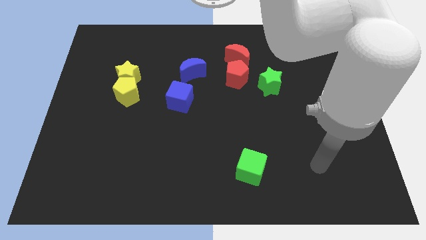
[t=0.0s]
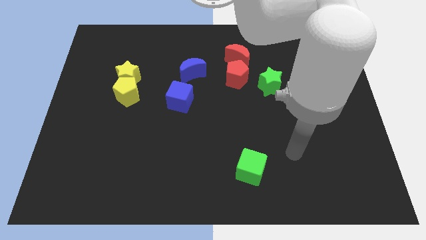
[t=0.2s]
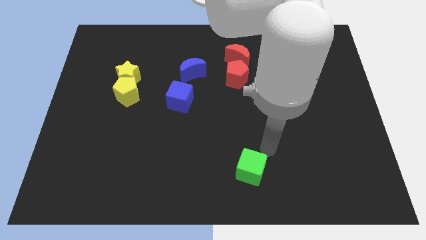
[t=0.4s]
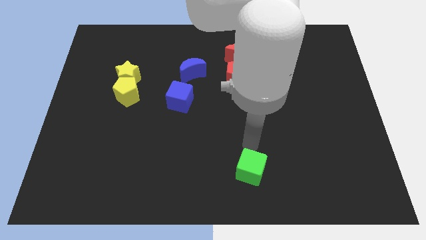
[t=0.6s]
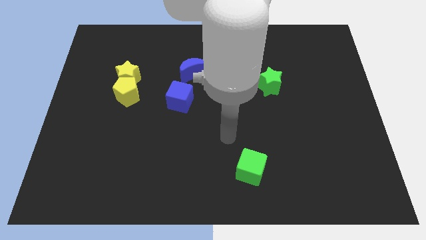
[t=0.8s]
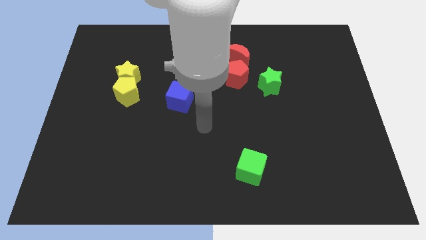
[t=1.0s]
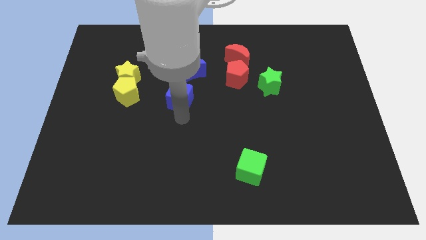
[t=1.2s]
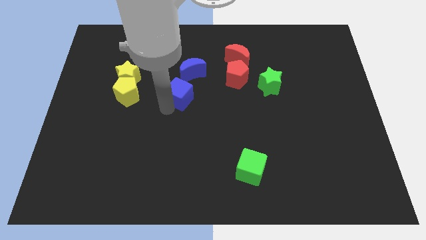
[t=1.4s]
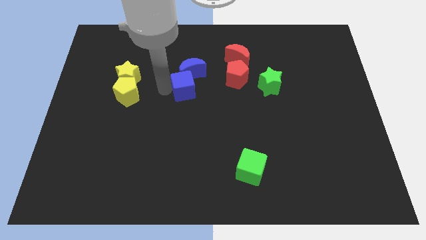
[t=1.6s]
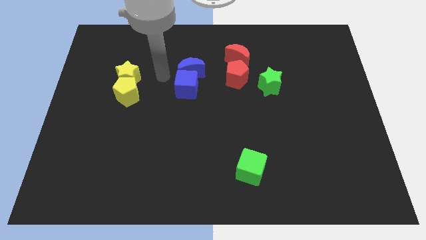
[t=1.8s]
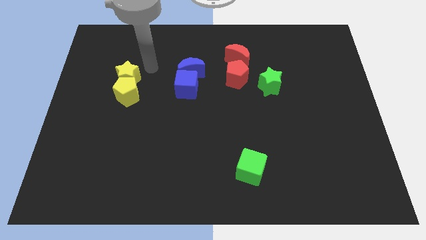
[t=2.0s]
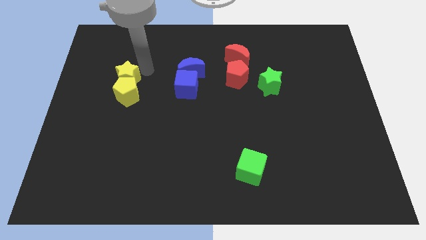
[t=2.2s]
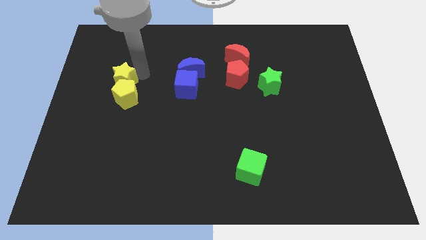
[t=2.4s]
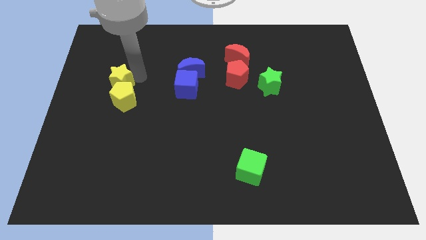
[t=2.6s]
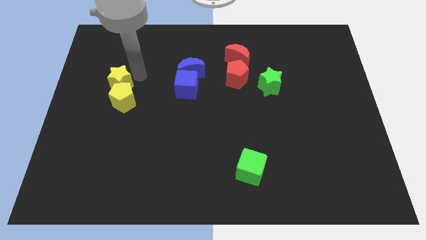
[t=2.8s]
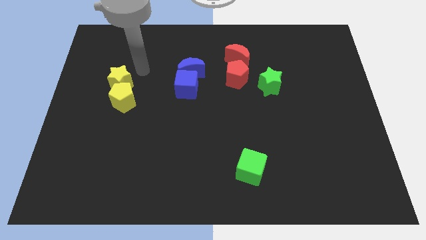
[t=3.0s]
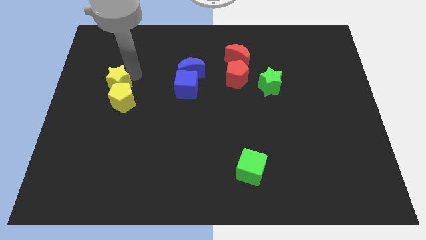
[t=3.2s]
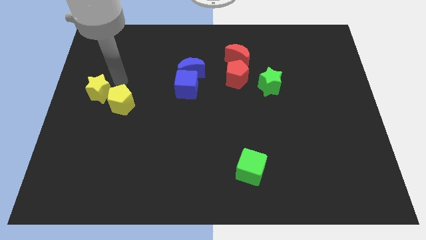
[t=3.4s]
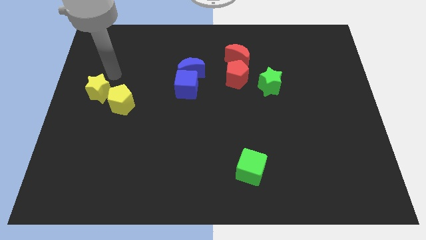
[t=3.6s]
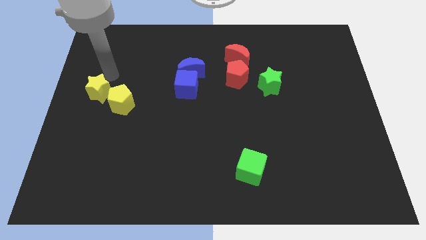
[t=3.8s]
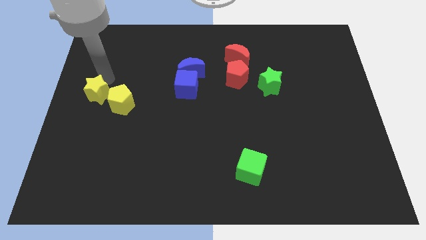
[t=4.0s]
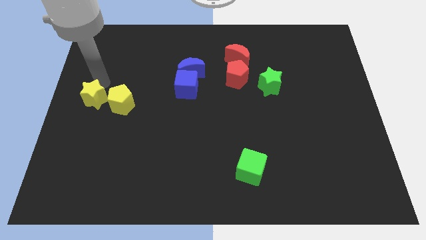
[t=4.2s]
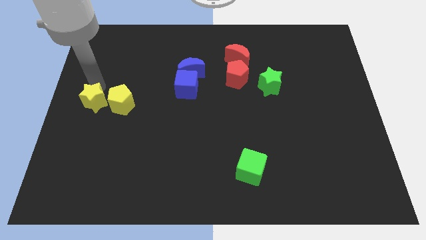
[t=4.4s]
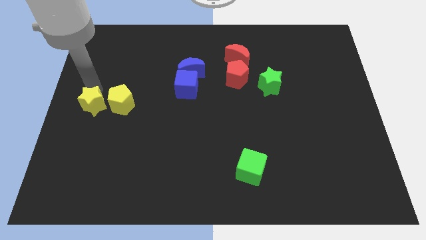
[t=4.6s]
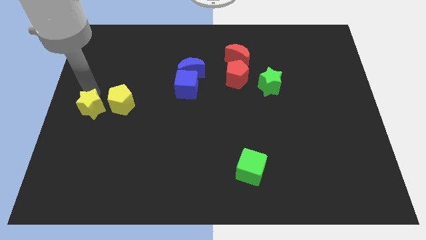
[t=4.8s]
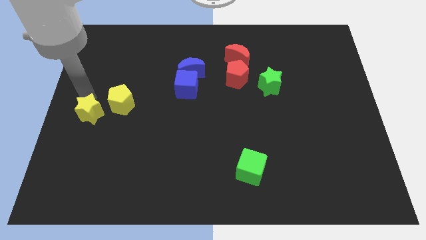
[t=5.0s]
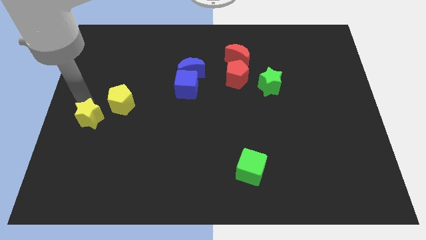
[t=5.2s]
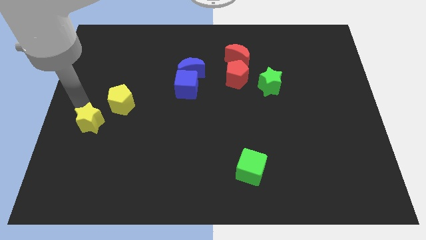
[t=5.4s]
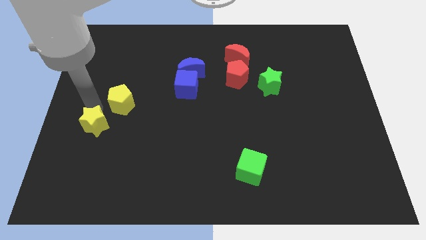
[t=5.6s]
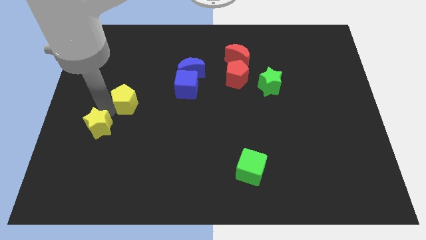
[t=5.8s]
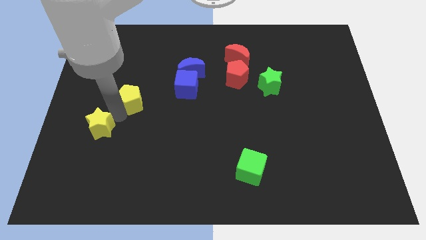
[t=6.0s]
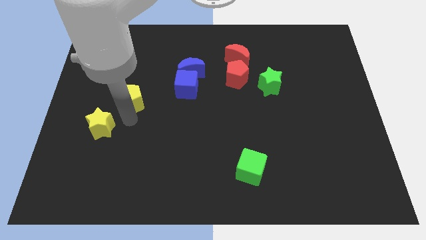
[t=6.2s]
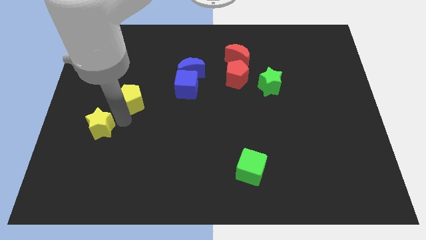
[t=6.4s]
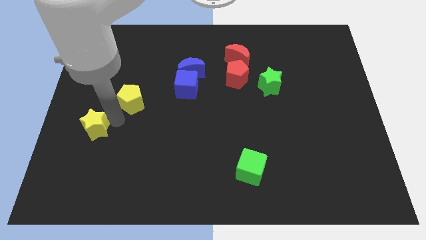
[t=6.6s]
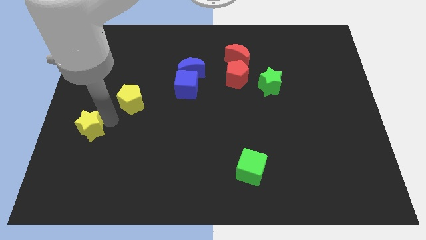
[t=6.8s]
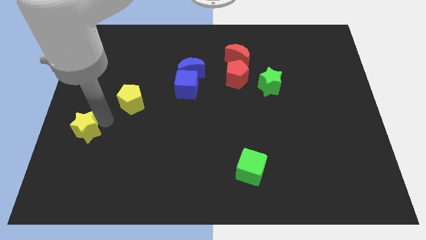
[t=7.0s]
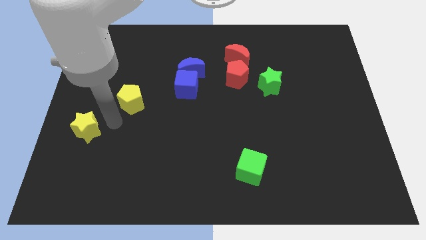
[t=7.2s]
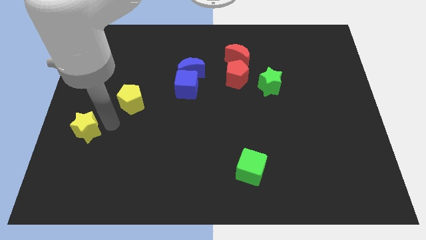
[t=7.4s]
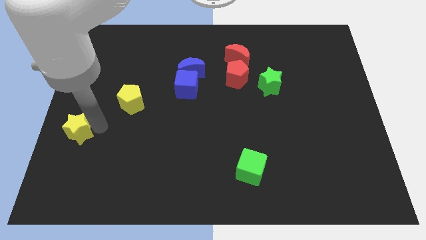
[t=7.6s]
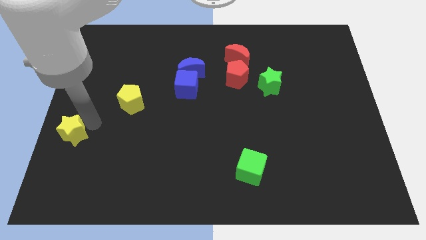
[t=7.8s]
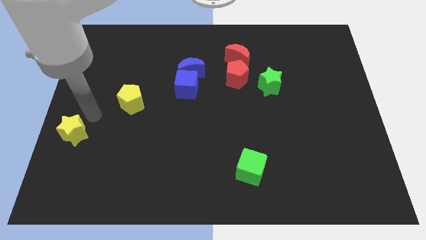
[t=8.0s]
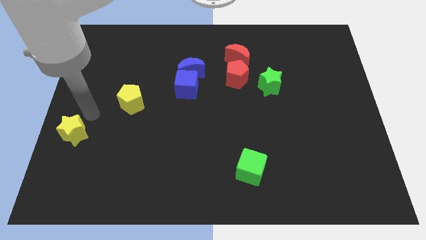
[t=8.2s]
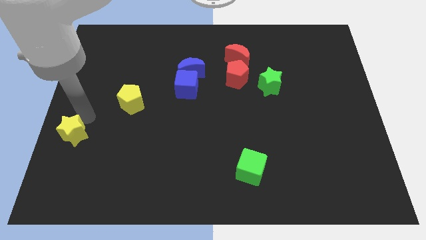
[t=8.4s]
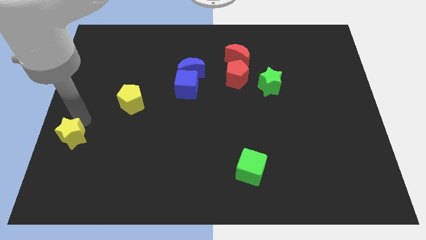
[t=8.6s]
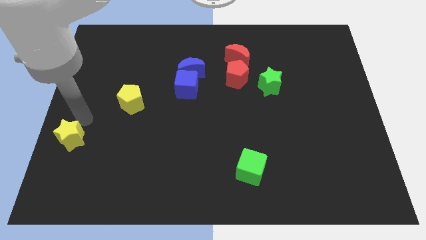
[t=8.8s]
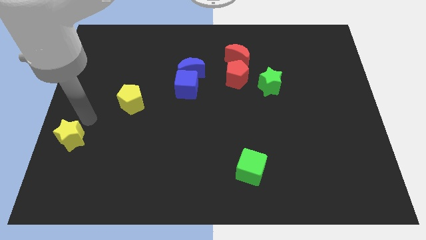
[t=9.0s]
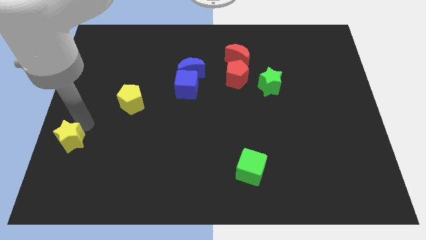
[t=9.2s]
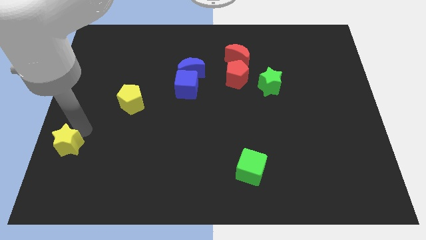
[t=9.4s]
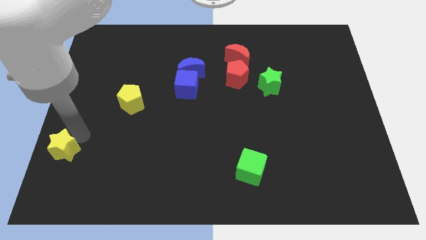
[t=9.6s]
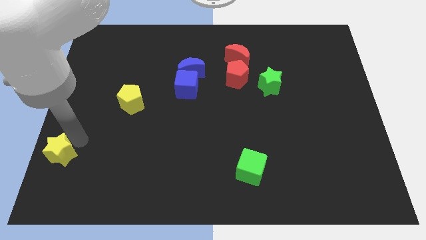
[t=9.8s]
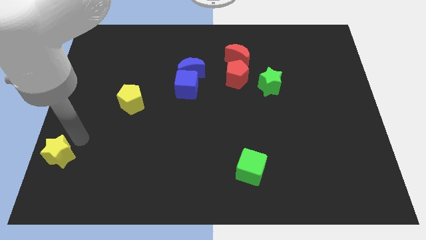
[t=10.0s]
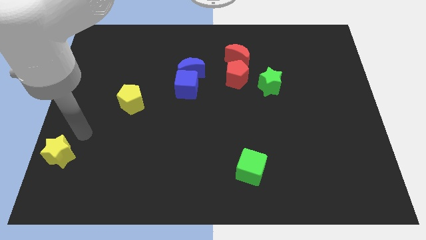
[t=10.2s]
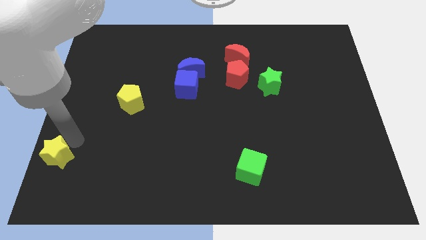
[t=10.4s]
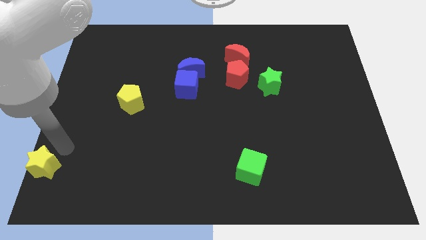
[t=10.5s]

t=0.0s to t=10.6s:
slide the yellow star to the bottom left

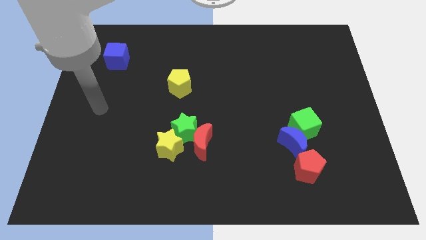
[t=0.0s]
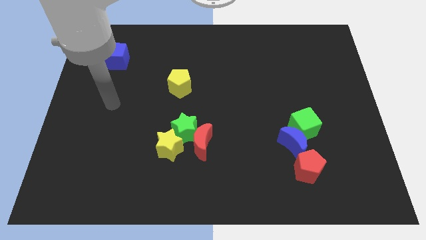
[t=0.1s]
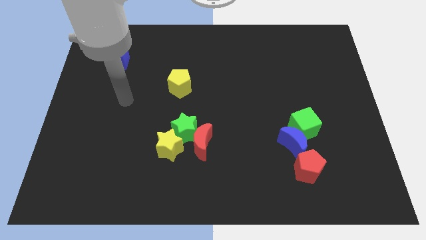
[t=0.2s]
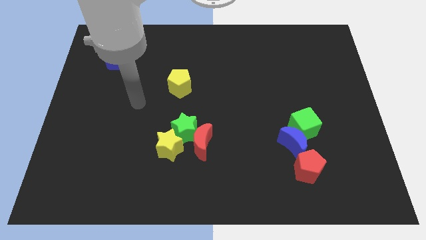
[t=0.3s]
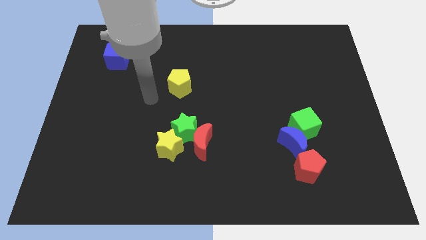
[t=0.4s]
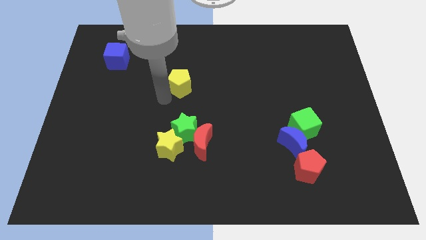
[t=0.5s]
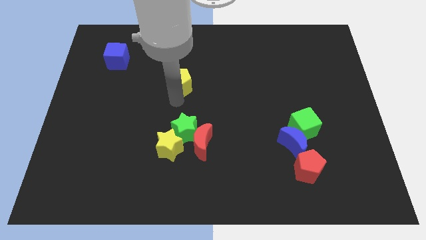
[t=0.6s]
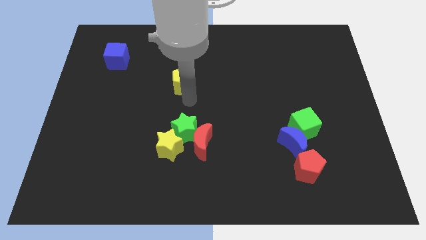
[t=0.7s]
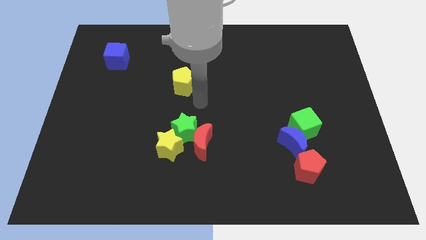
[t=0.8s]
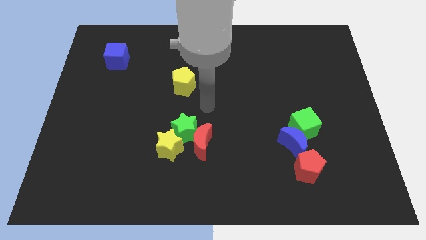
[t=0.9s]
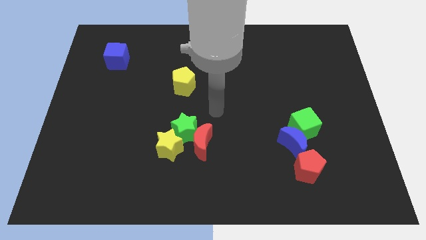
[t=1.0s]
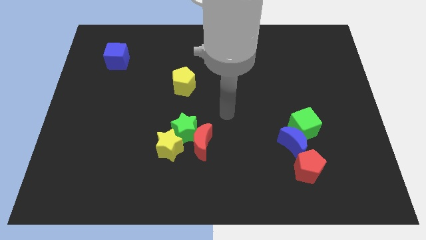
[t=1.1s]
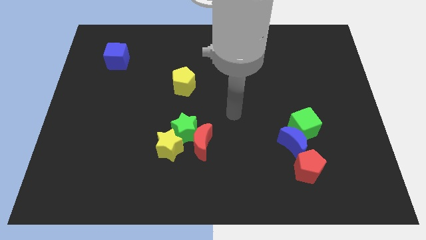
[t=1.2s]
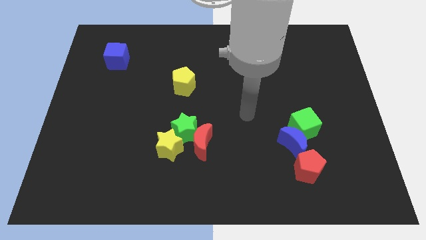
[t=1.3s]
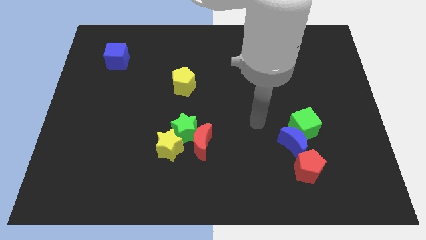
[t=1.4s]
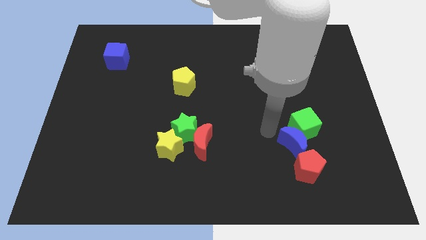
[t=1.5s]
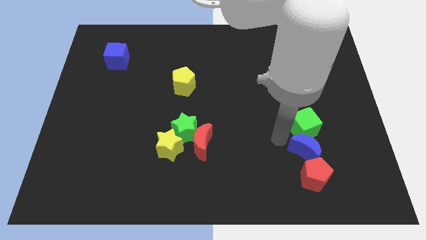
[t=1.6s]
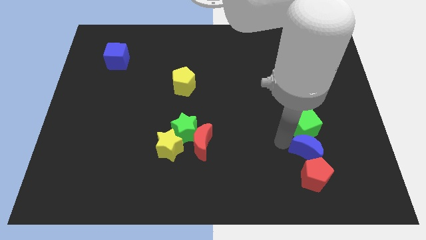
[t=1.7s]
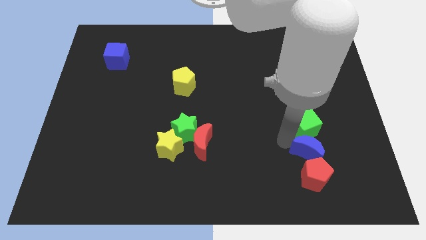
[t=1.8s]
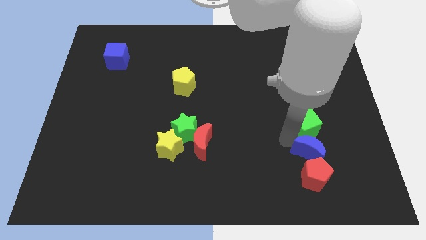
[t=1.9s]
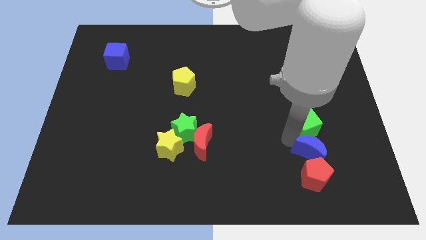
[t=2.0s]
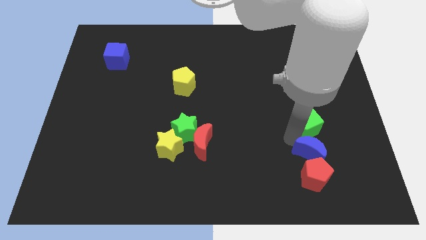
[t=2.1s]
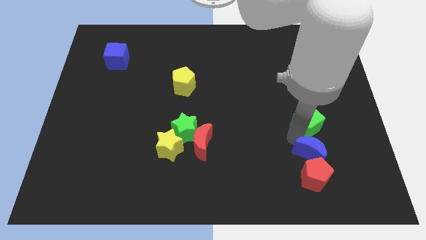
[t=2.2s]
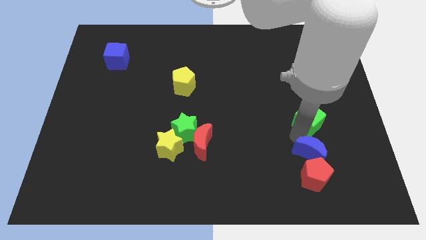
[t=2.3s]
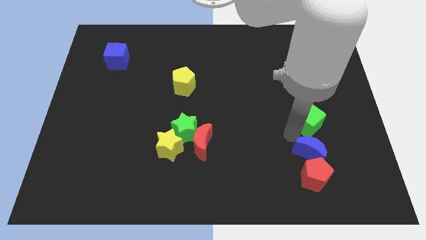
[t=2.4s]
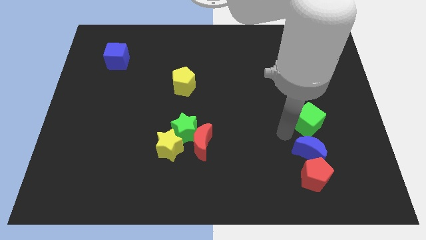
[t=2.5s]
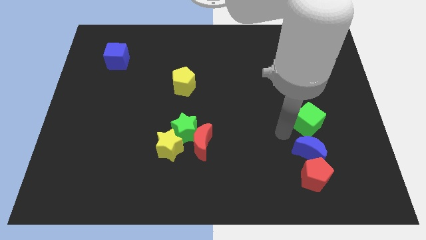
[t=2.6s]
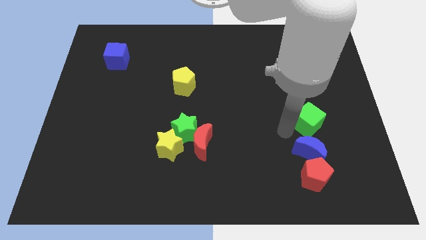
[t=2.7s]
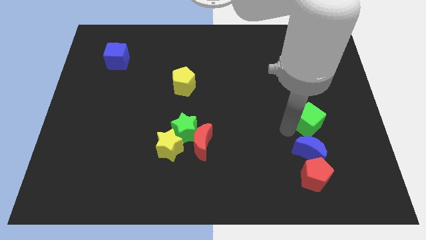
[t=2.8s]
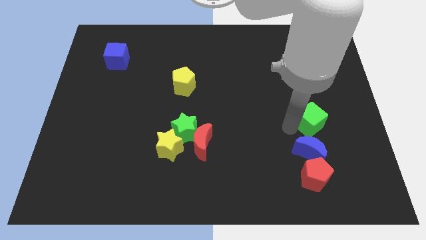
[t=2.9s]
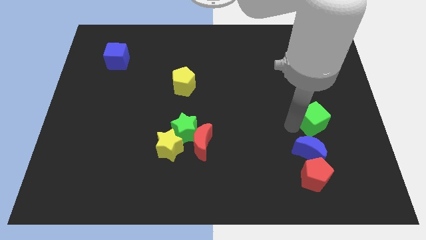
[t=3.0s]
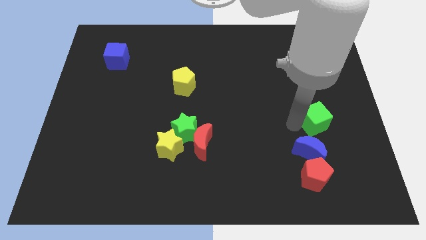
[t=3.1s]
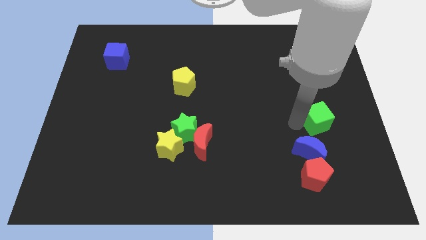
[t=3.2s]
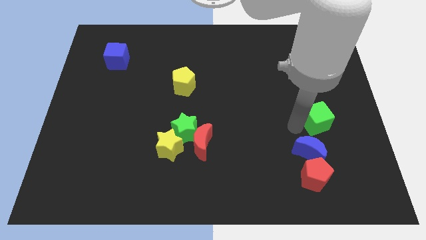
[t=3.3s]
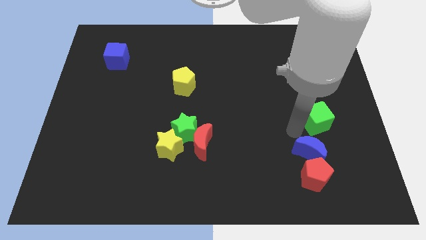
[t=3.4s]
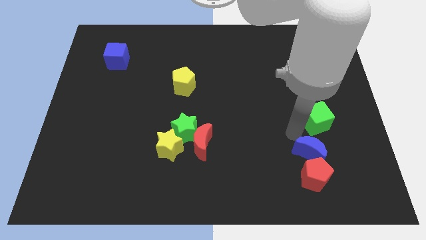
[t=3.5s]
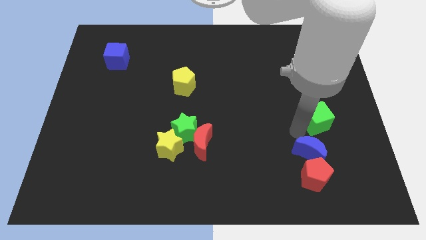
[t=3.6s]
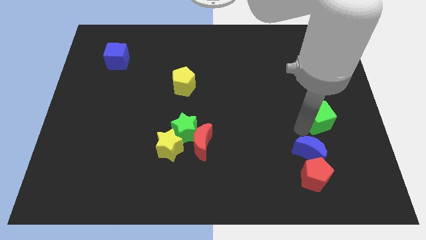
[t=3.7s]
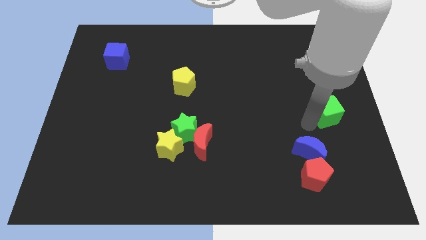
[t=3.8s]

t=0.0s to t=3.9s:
put the green cube to the center right
